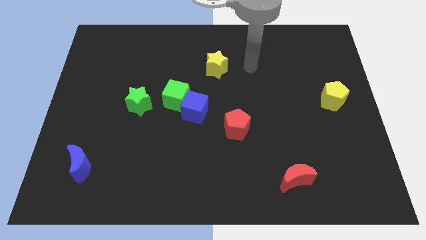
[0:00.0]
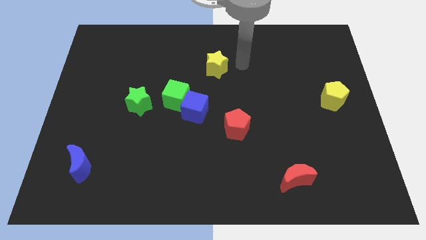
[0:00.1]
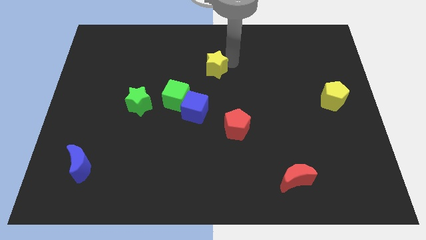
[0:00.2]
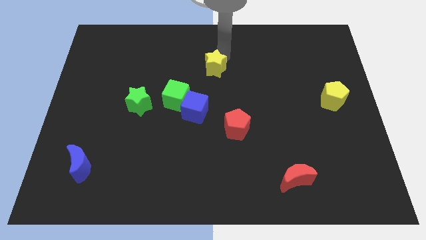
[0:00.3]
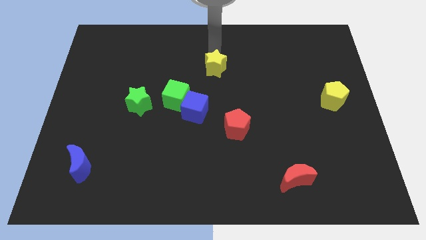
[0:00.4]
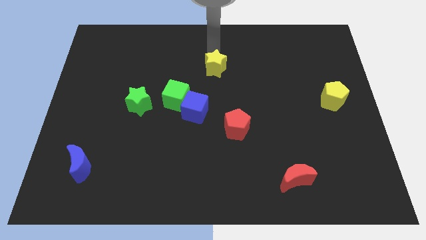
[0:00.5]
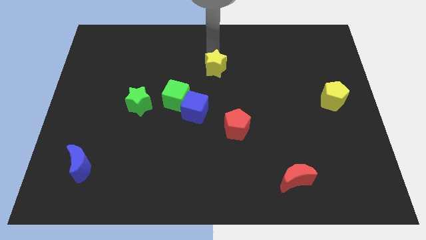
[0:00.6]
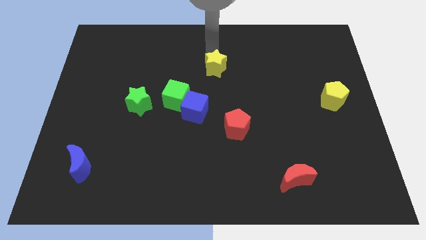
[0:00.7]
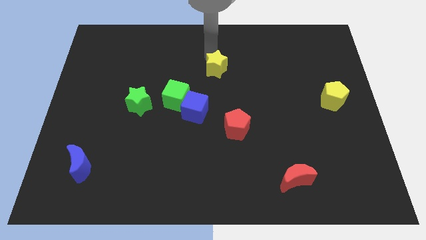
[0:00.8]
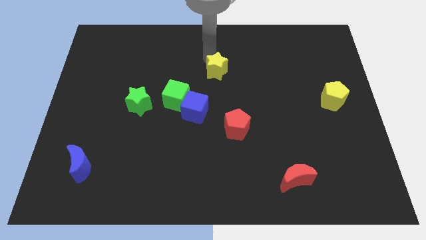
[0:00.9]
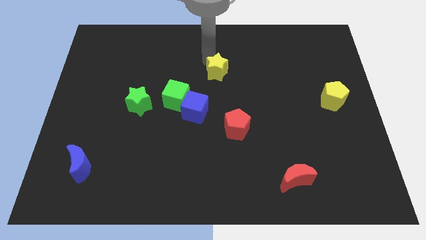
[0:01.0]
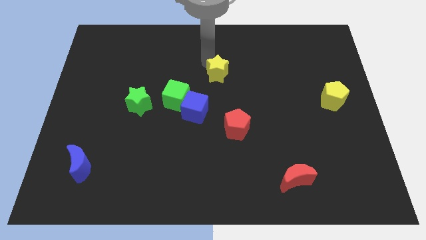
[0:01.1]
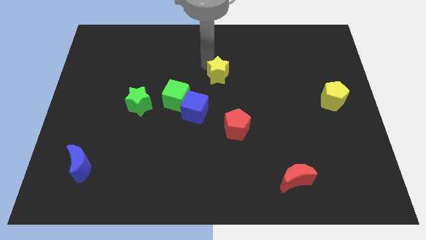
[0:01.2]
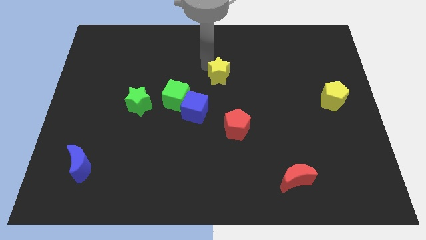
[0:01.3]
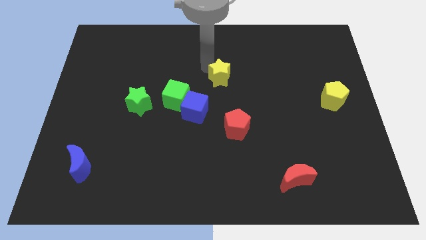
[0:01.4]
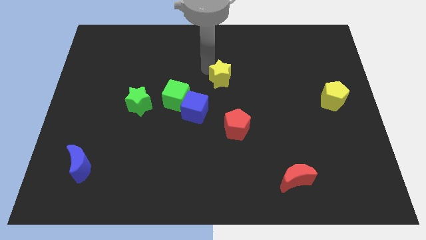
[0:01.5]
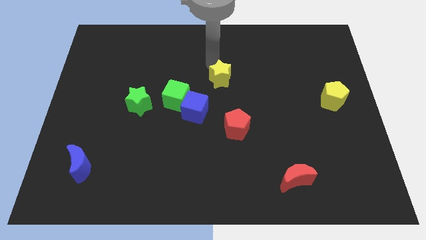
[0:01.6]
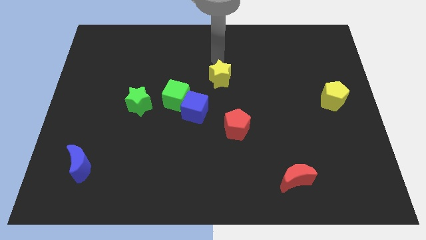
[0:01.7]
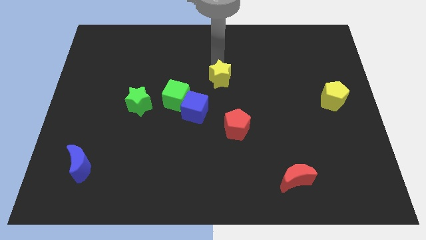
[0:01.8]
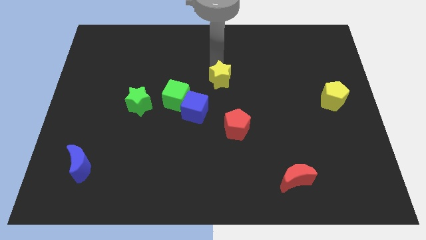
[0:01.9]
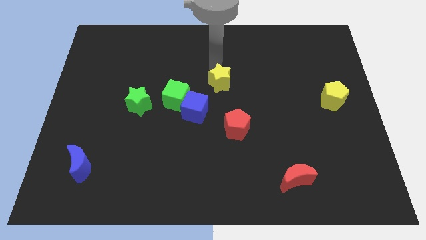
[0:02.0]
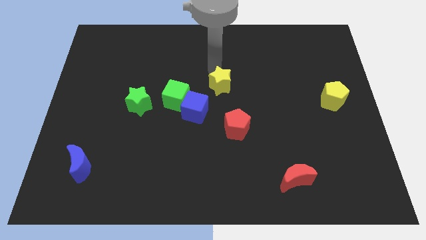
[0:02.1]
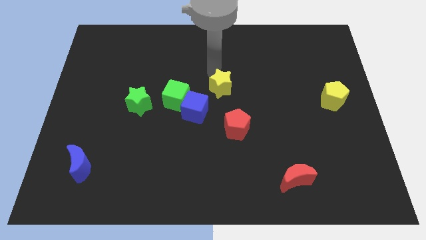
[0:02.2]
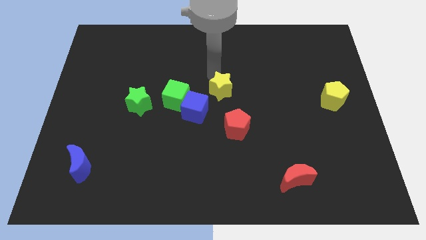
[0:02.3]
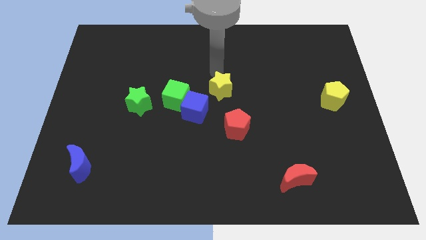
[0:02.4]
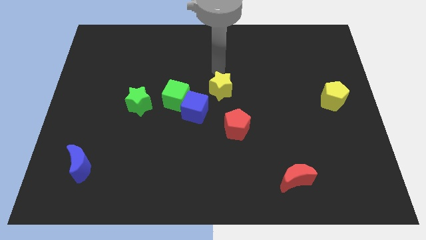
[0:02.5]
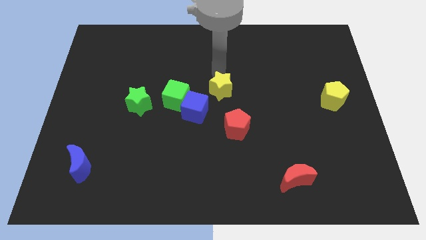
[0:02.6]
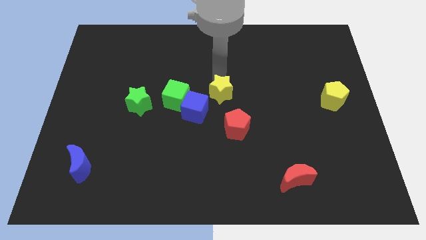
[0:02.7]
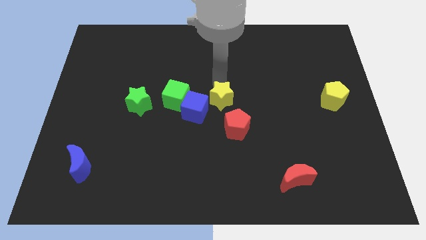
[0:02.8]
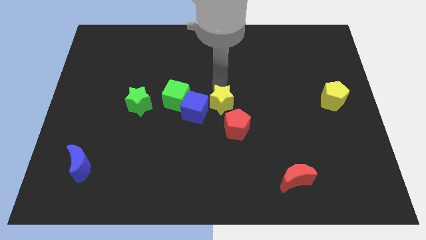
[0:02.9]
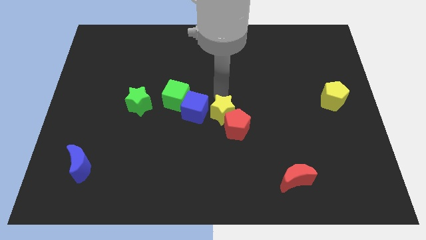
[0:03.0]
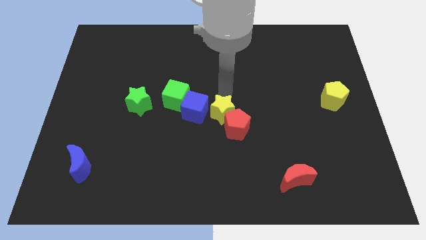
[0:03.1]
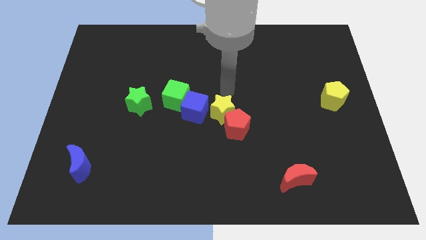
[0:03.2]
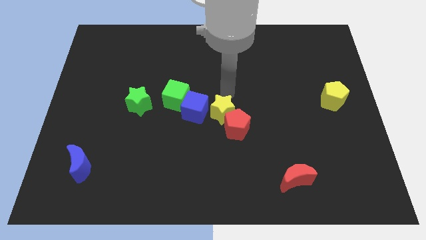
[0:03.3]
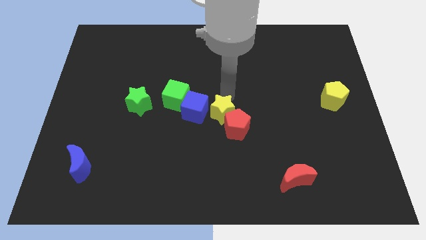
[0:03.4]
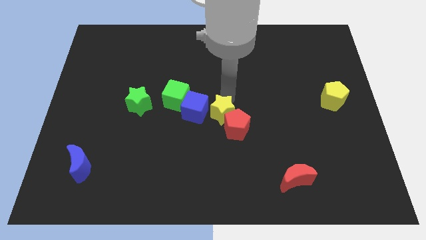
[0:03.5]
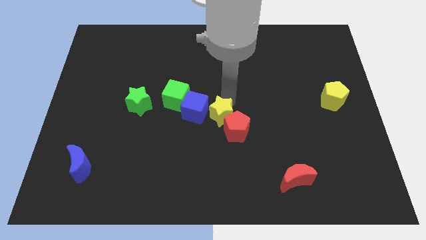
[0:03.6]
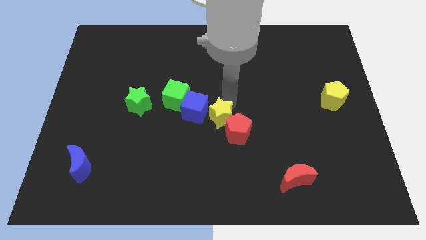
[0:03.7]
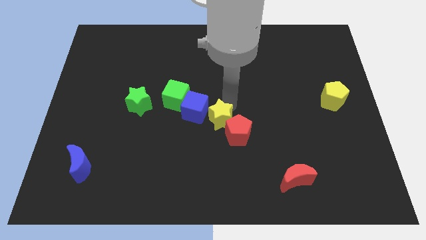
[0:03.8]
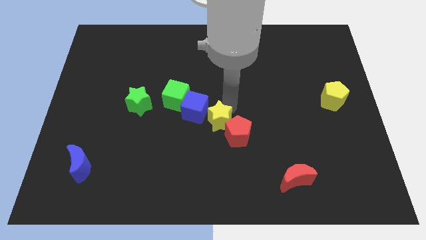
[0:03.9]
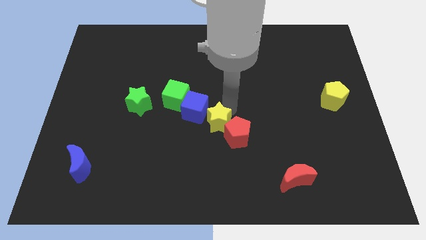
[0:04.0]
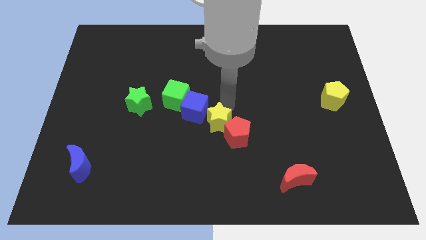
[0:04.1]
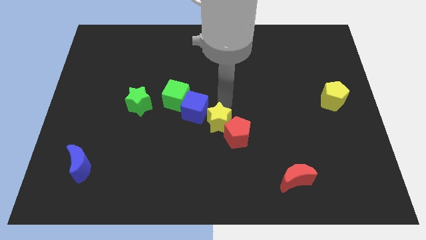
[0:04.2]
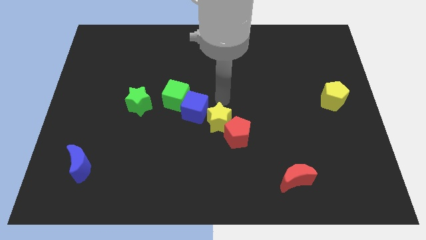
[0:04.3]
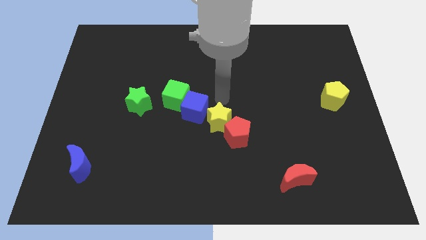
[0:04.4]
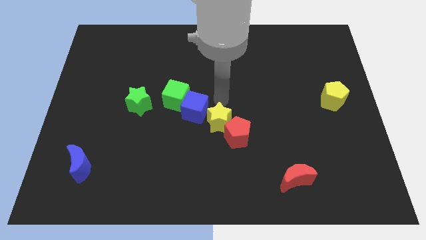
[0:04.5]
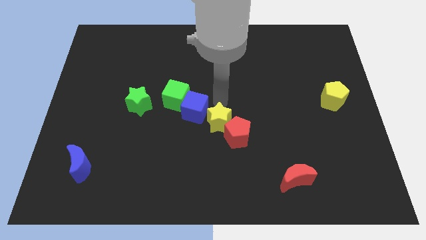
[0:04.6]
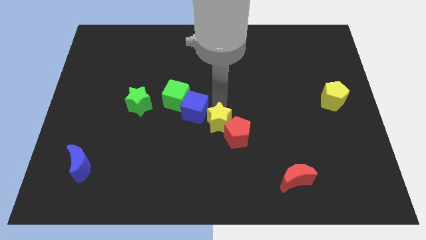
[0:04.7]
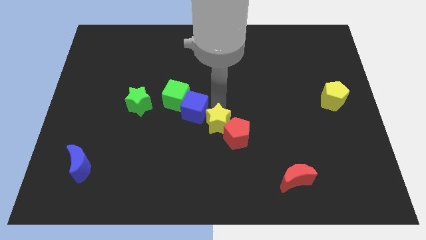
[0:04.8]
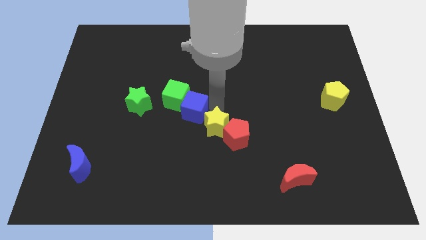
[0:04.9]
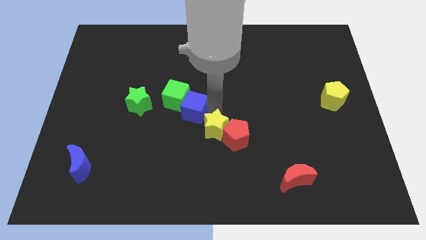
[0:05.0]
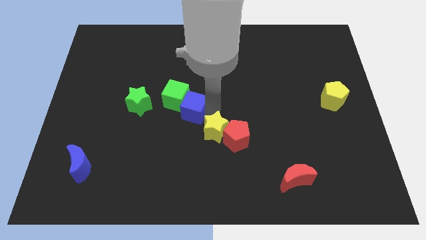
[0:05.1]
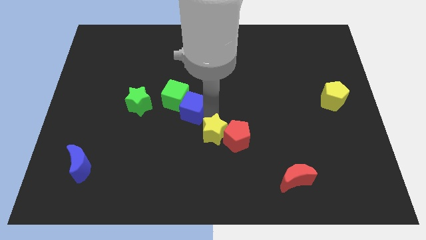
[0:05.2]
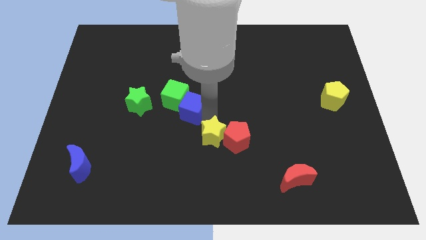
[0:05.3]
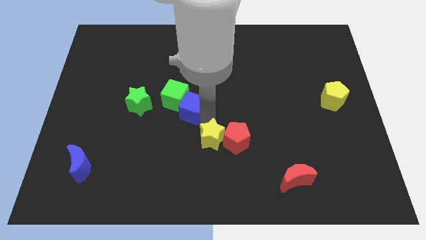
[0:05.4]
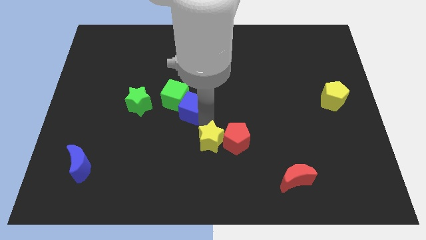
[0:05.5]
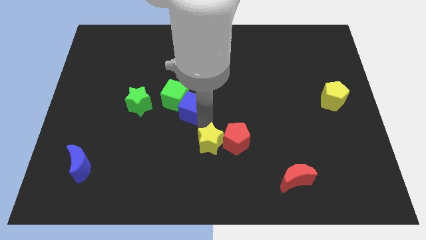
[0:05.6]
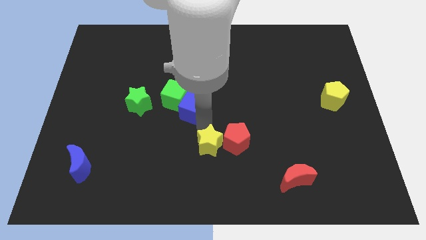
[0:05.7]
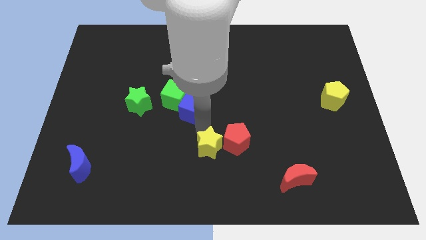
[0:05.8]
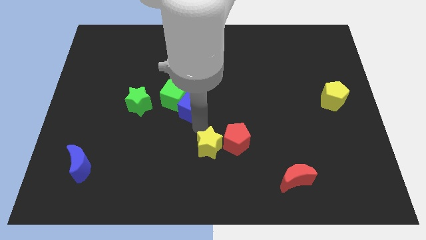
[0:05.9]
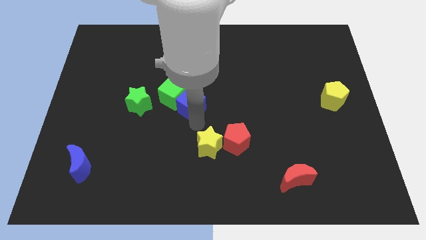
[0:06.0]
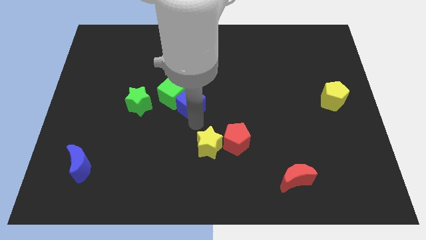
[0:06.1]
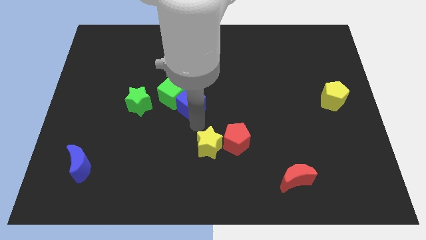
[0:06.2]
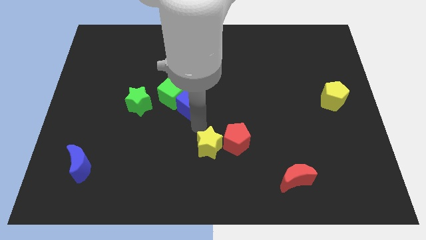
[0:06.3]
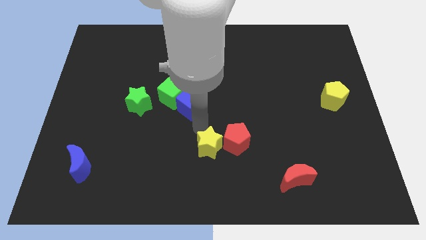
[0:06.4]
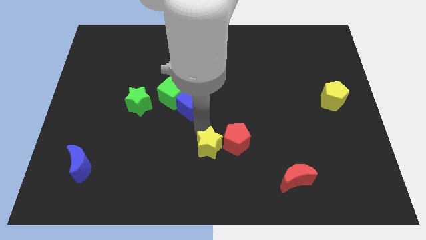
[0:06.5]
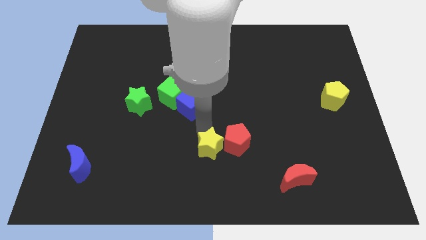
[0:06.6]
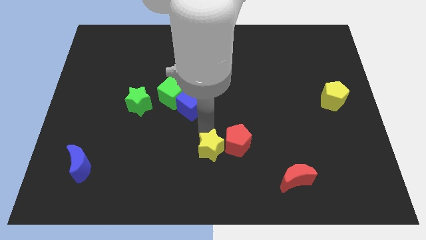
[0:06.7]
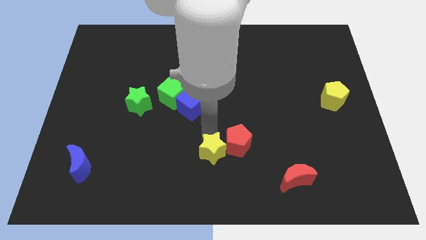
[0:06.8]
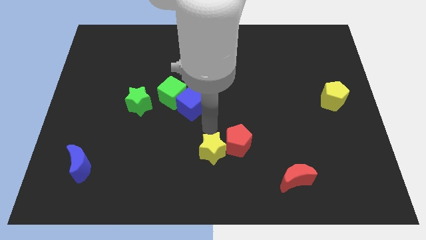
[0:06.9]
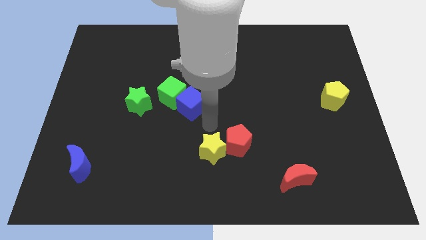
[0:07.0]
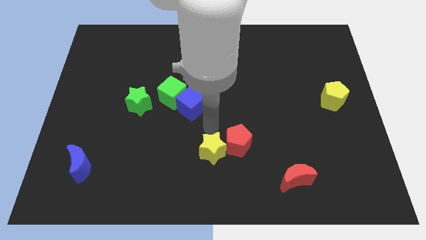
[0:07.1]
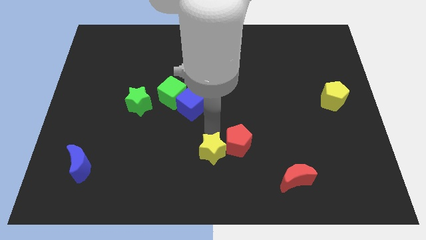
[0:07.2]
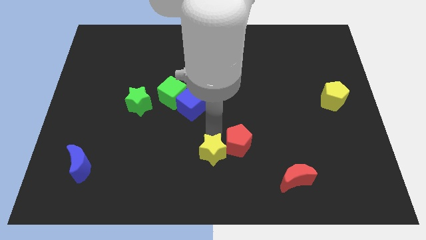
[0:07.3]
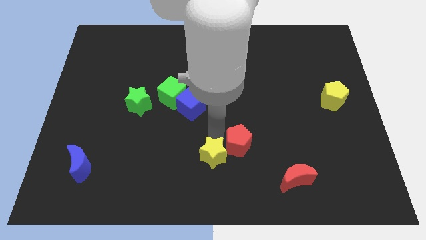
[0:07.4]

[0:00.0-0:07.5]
put the yellow star to the bottom side

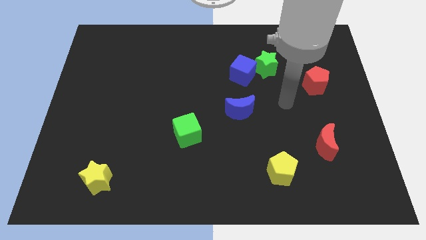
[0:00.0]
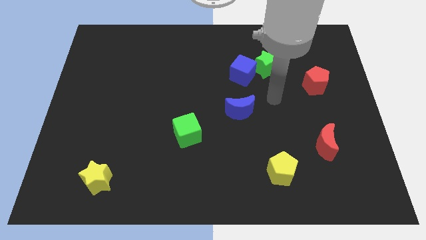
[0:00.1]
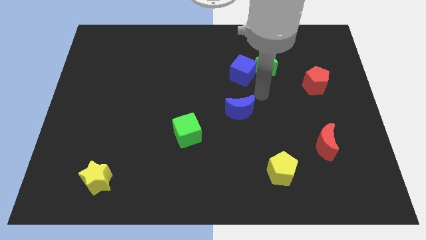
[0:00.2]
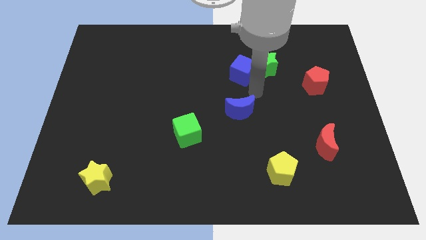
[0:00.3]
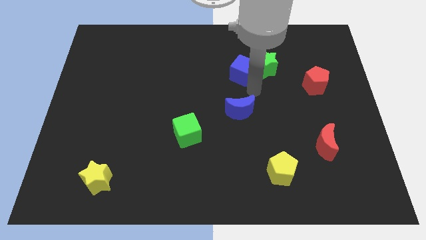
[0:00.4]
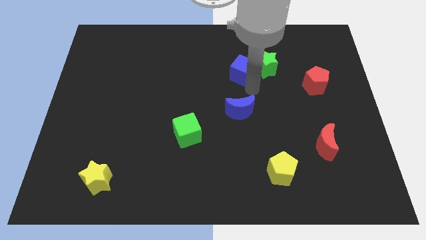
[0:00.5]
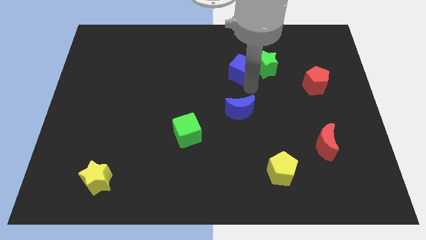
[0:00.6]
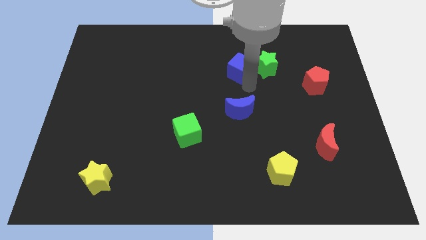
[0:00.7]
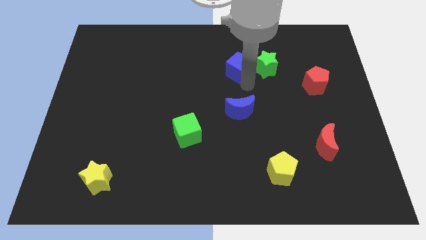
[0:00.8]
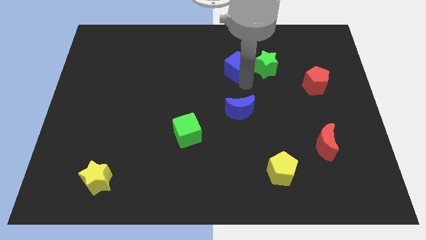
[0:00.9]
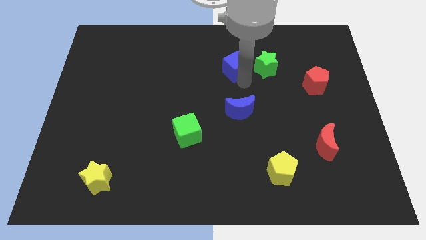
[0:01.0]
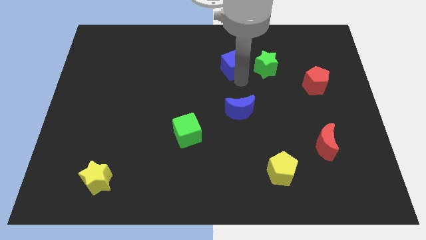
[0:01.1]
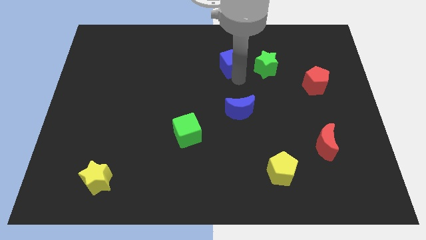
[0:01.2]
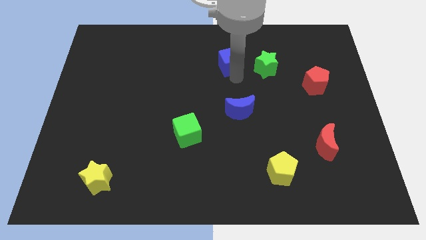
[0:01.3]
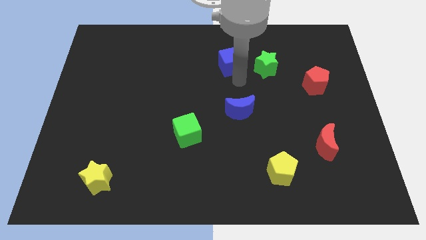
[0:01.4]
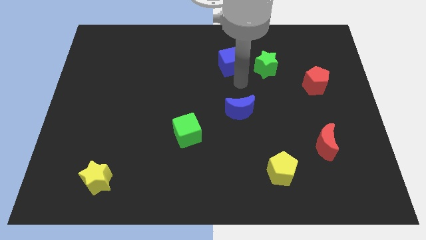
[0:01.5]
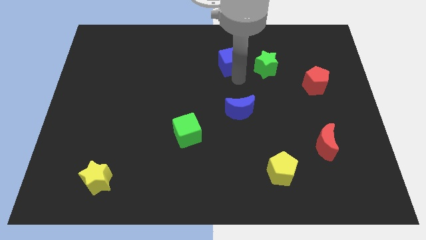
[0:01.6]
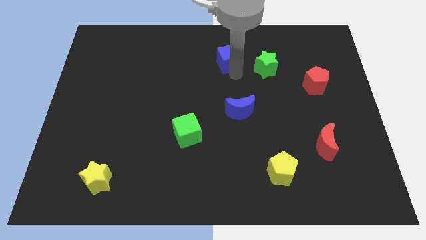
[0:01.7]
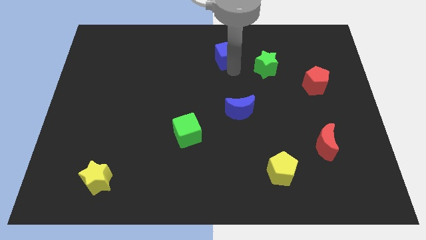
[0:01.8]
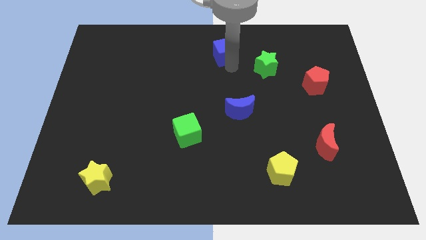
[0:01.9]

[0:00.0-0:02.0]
push the blue cube to the top side
